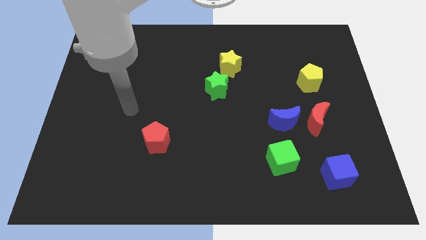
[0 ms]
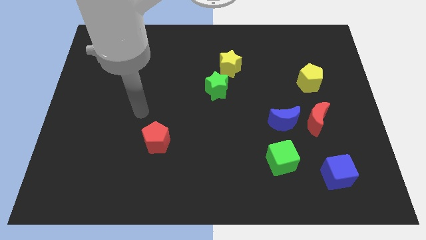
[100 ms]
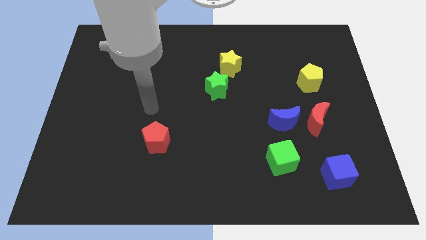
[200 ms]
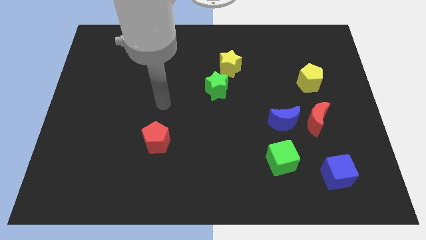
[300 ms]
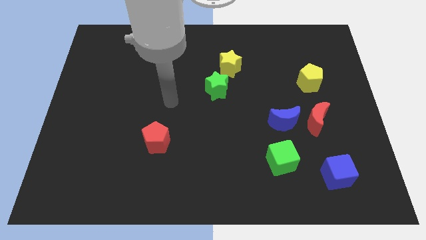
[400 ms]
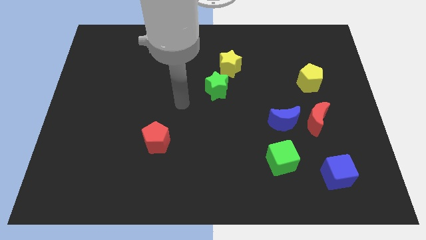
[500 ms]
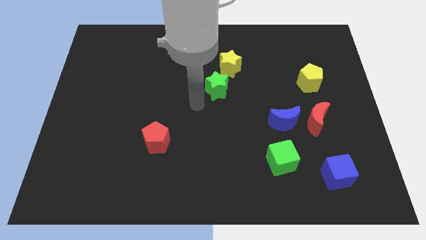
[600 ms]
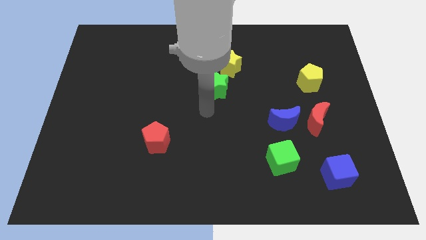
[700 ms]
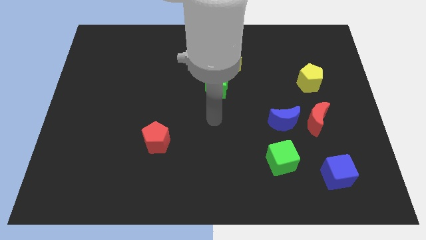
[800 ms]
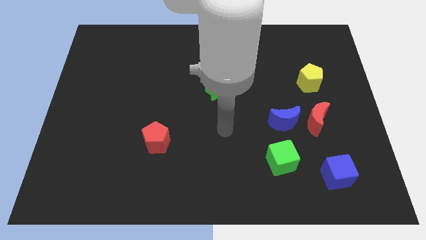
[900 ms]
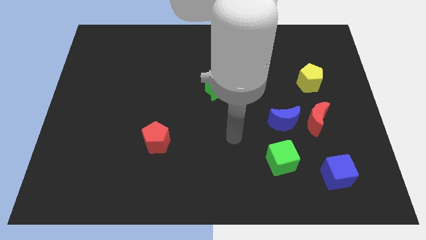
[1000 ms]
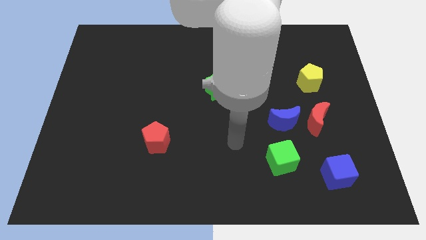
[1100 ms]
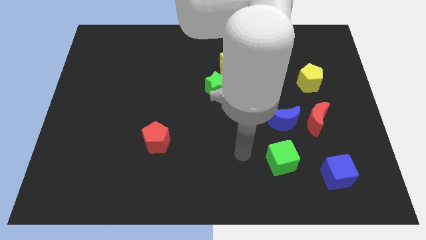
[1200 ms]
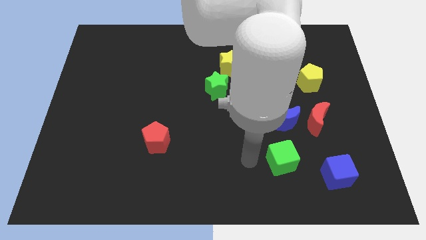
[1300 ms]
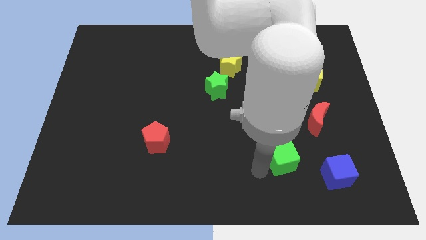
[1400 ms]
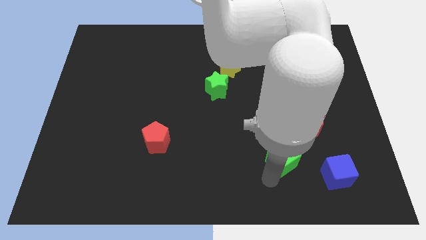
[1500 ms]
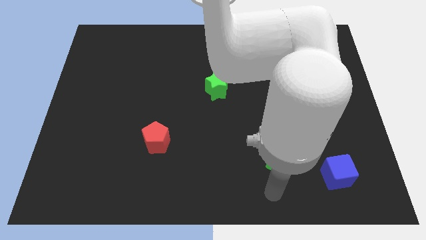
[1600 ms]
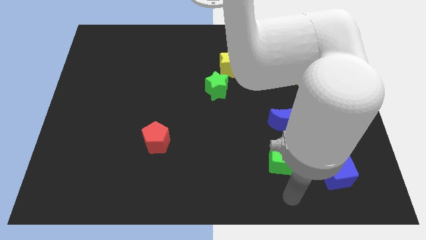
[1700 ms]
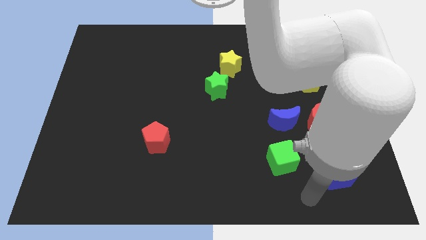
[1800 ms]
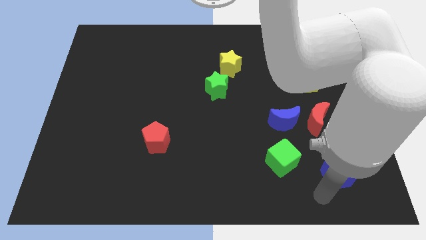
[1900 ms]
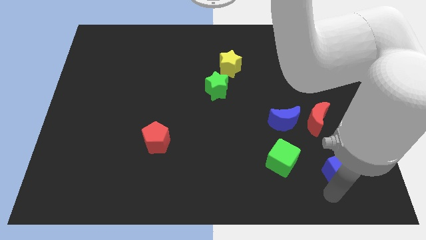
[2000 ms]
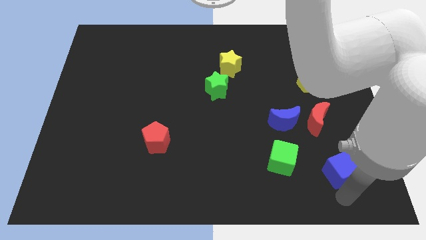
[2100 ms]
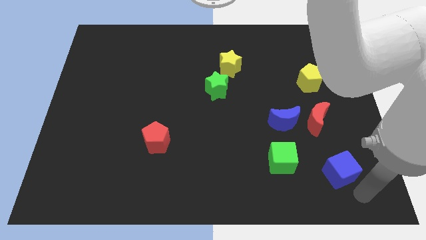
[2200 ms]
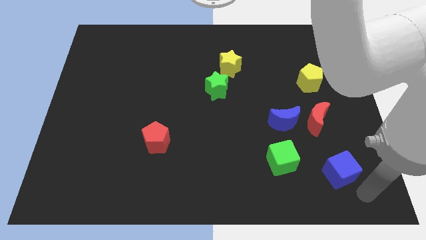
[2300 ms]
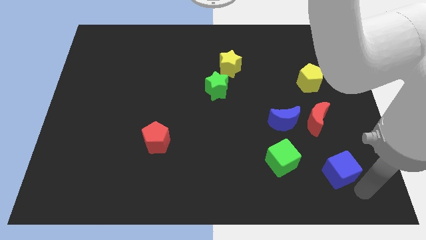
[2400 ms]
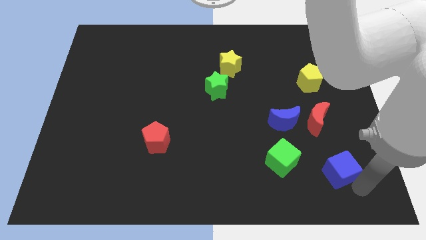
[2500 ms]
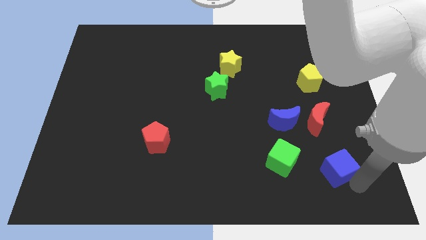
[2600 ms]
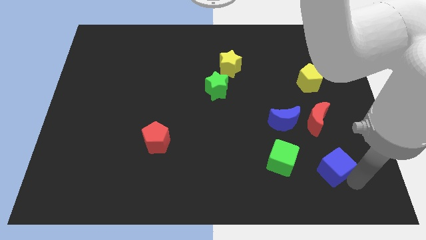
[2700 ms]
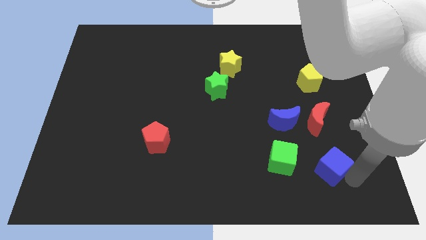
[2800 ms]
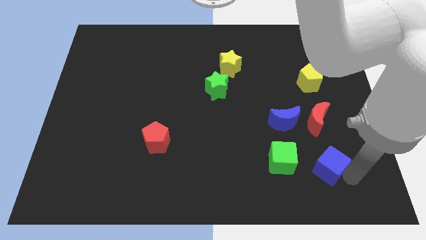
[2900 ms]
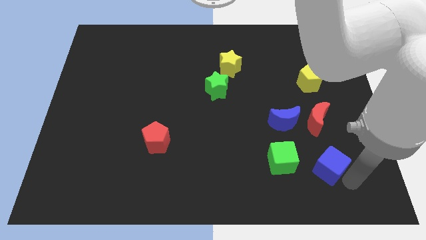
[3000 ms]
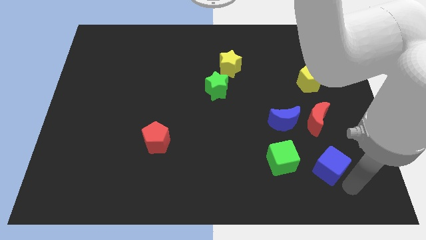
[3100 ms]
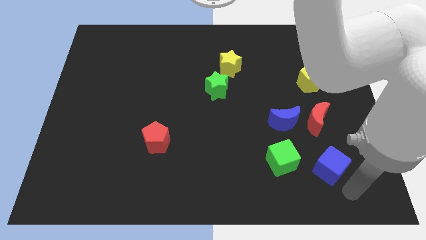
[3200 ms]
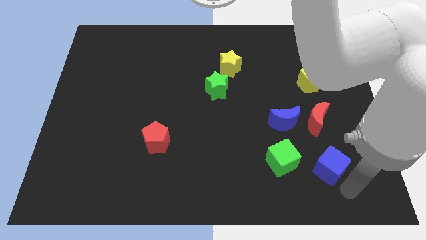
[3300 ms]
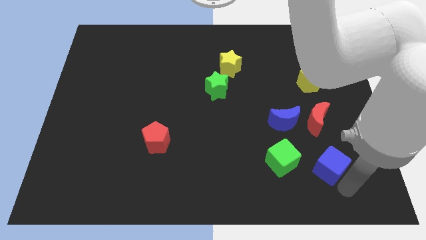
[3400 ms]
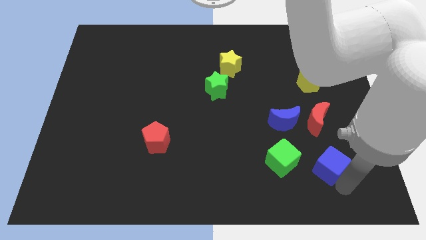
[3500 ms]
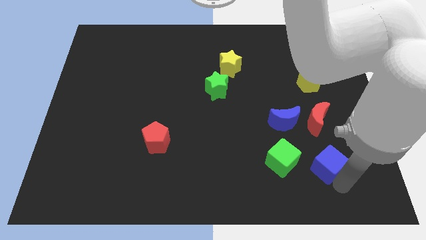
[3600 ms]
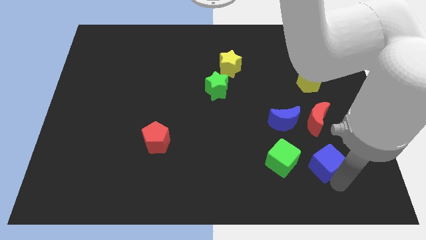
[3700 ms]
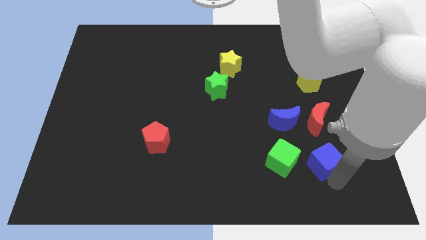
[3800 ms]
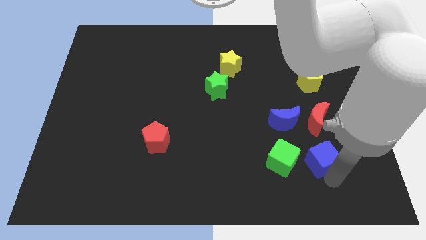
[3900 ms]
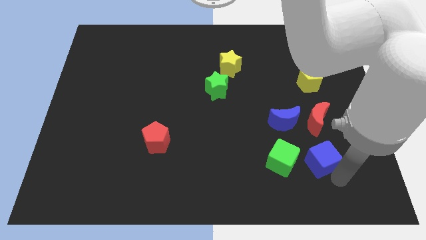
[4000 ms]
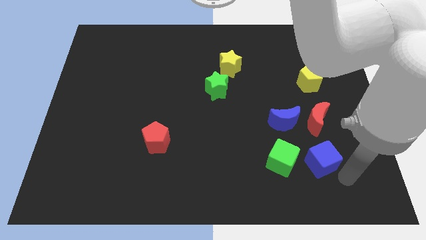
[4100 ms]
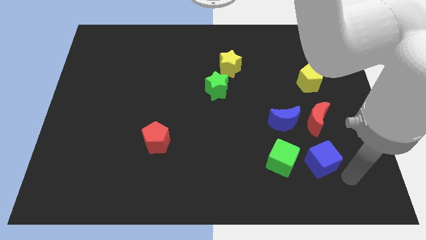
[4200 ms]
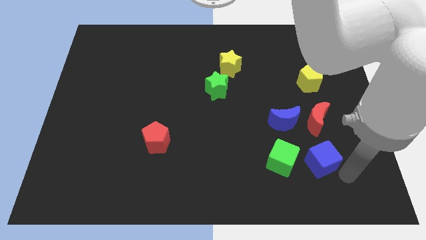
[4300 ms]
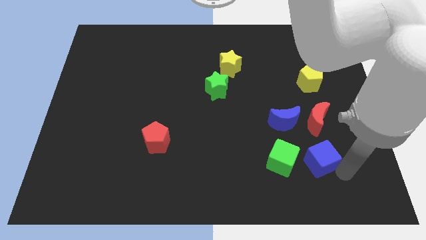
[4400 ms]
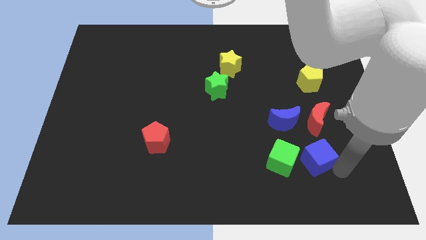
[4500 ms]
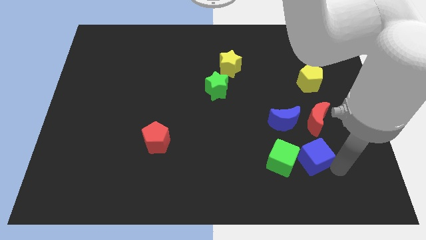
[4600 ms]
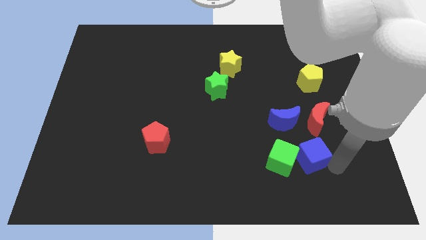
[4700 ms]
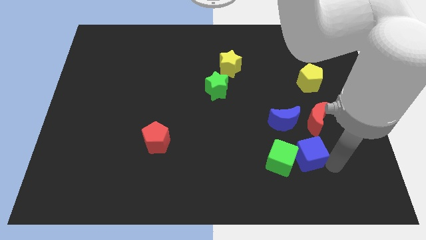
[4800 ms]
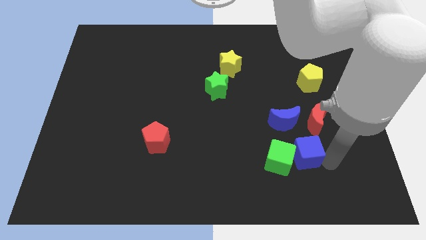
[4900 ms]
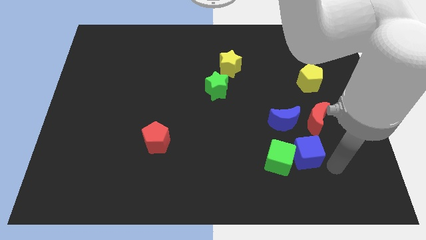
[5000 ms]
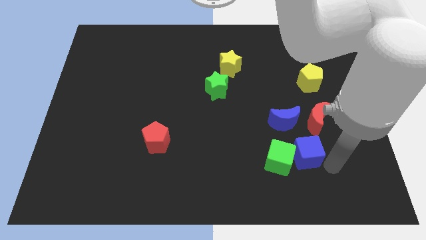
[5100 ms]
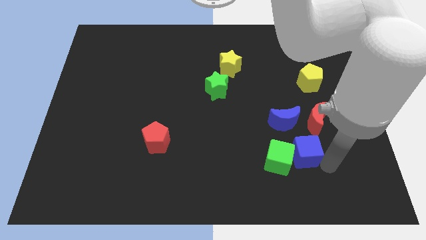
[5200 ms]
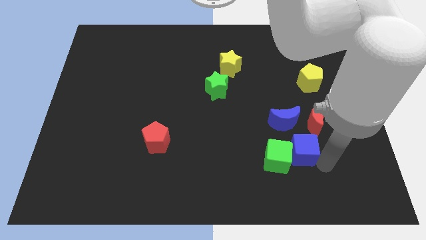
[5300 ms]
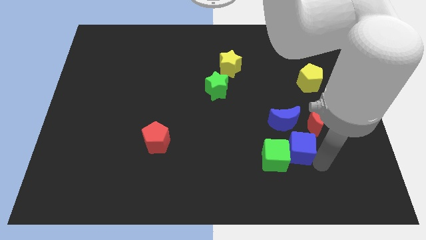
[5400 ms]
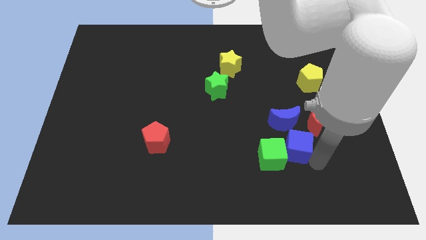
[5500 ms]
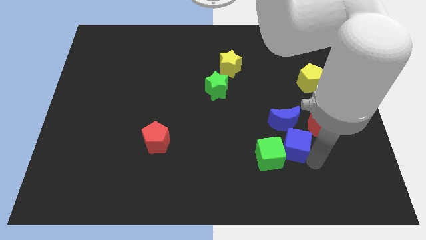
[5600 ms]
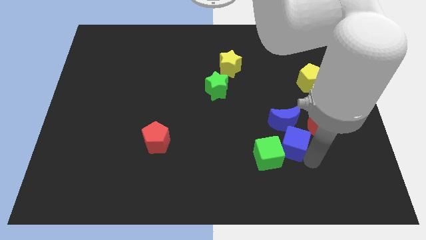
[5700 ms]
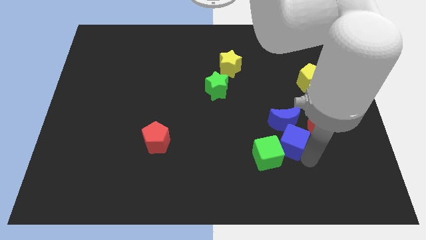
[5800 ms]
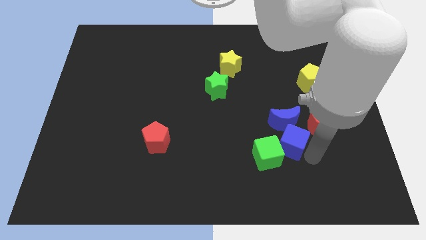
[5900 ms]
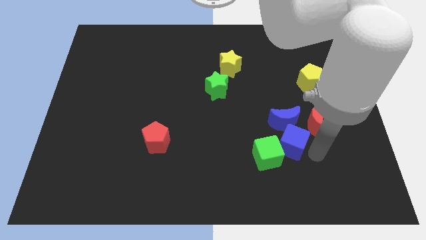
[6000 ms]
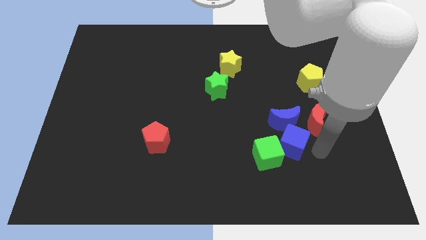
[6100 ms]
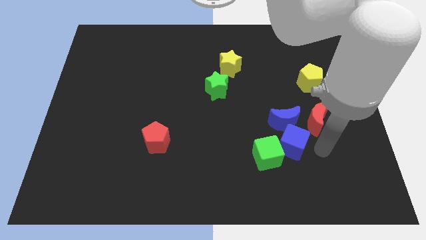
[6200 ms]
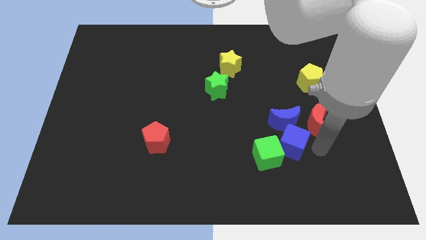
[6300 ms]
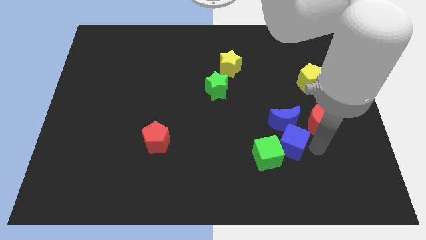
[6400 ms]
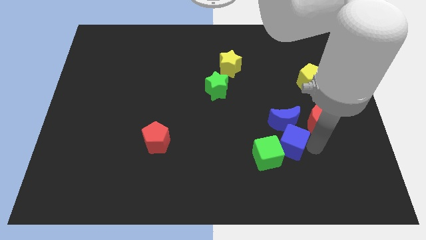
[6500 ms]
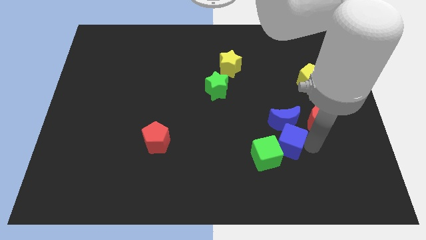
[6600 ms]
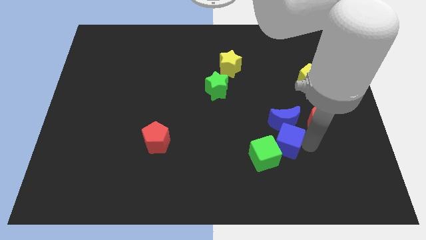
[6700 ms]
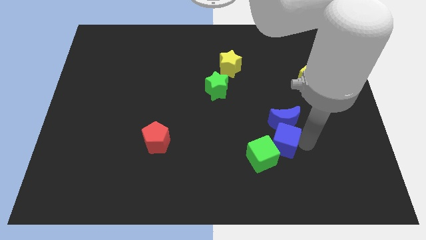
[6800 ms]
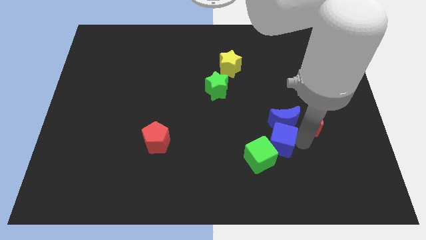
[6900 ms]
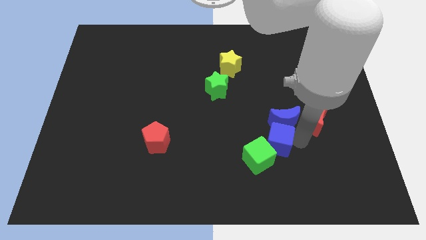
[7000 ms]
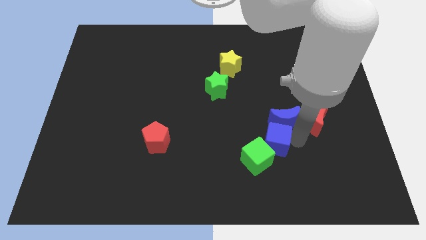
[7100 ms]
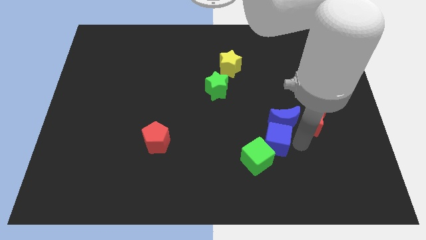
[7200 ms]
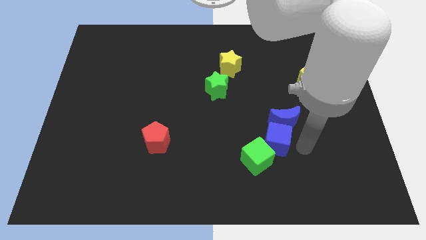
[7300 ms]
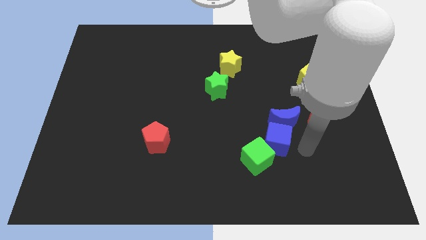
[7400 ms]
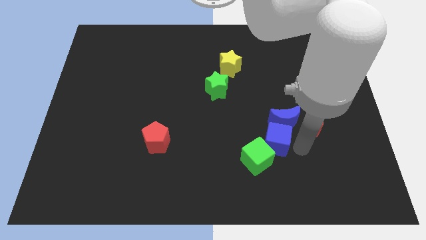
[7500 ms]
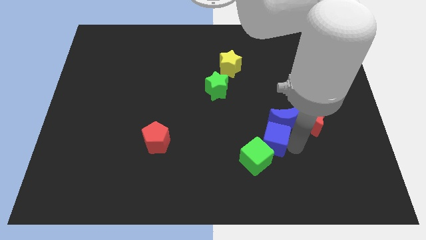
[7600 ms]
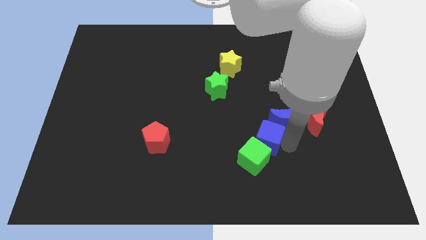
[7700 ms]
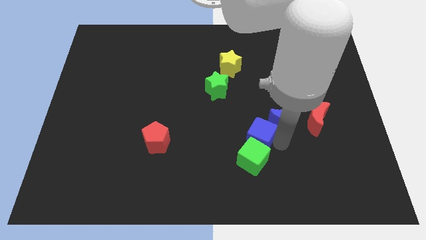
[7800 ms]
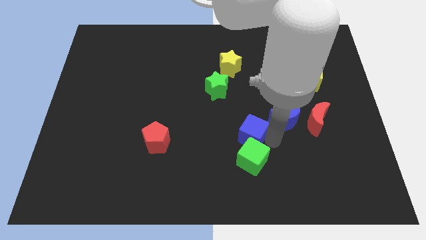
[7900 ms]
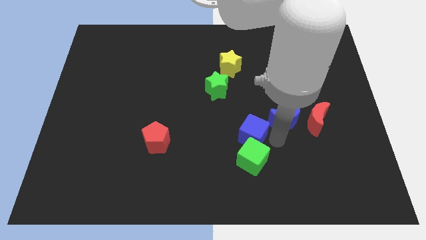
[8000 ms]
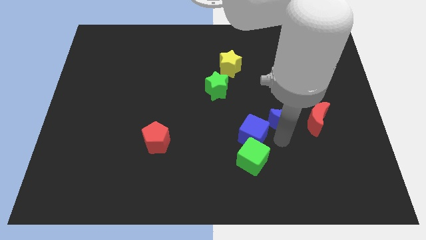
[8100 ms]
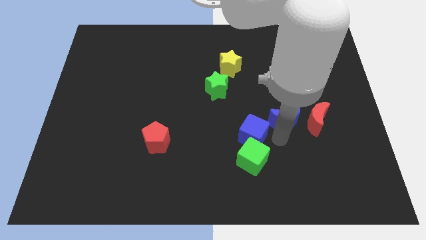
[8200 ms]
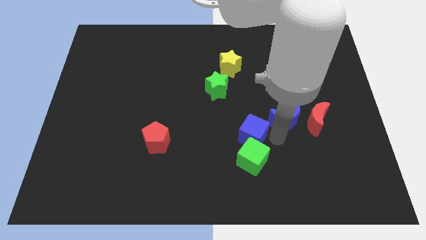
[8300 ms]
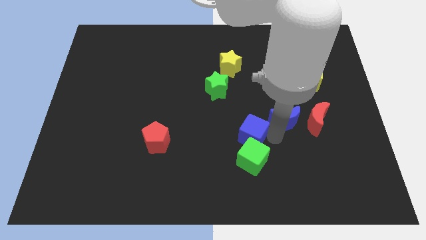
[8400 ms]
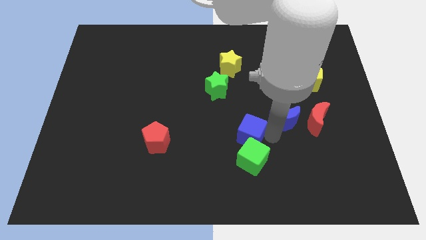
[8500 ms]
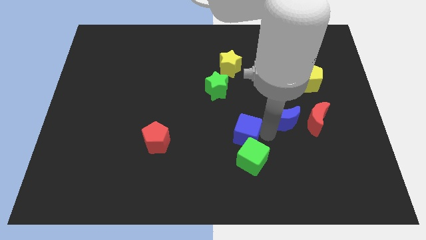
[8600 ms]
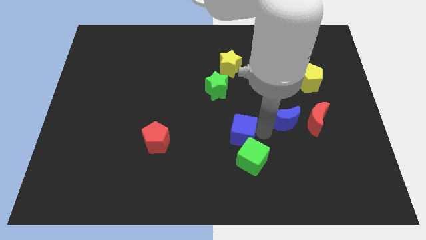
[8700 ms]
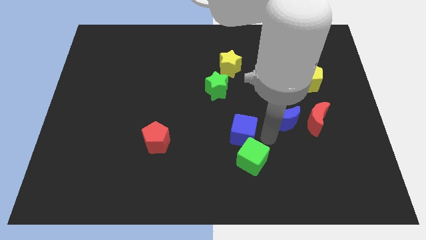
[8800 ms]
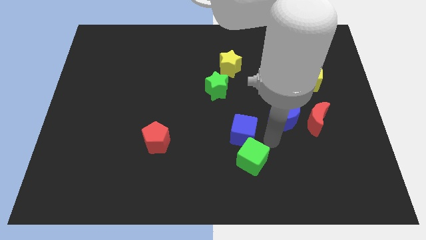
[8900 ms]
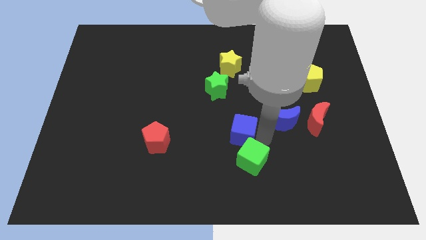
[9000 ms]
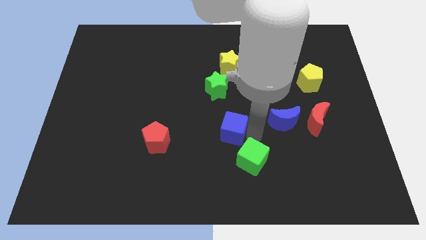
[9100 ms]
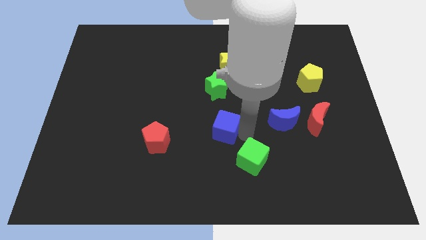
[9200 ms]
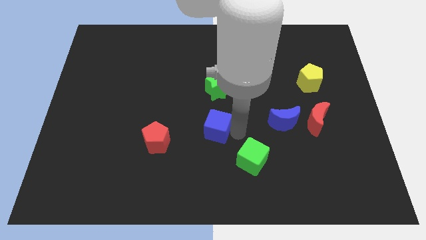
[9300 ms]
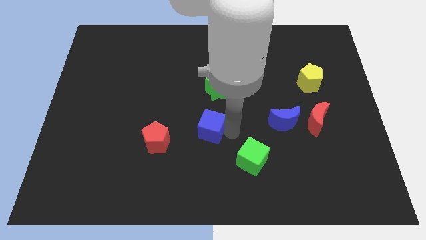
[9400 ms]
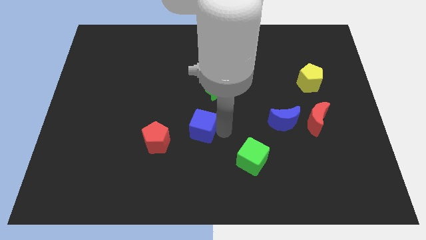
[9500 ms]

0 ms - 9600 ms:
push the blue cube to the top right of the red pentagon
